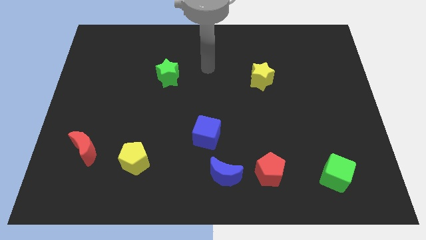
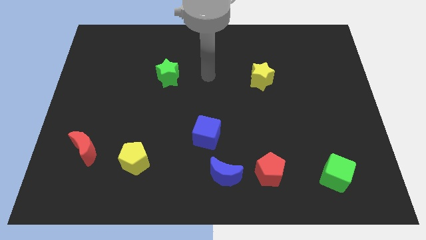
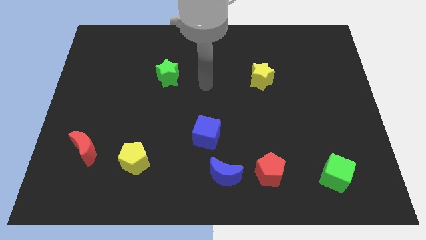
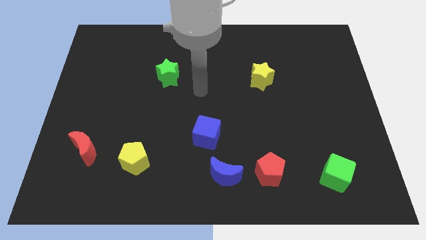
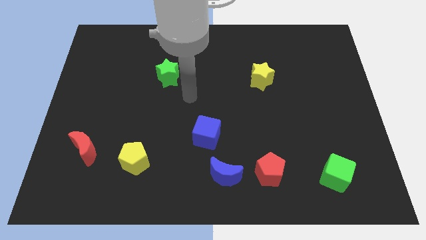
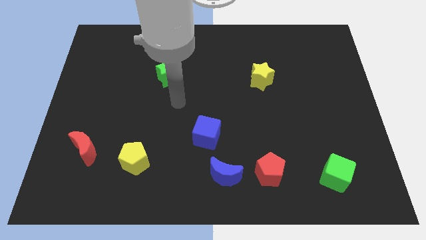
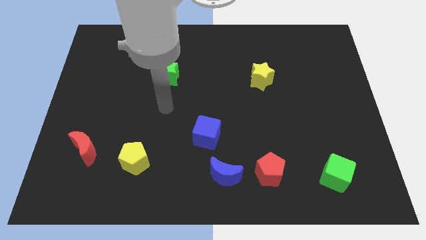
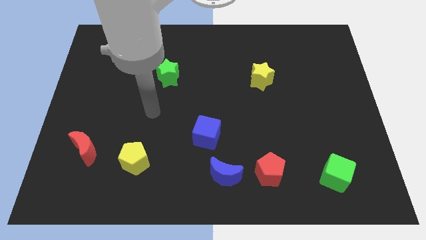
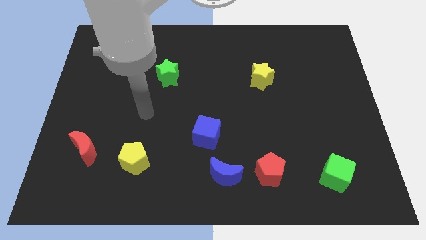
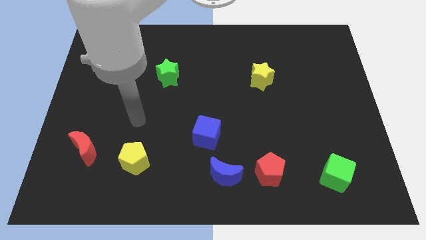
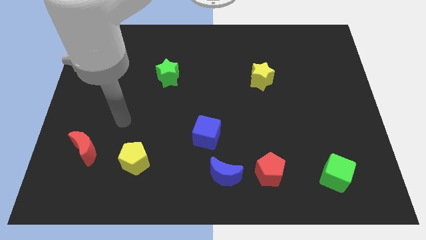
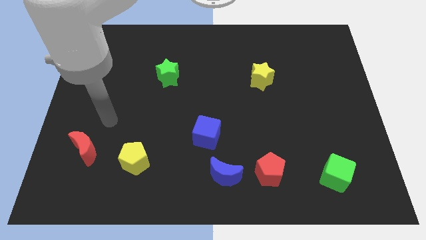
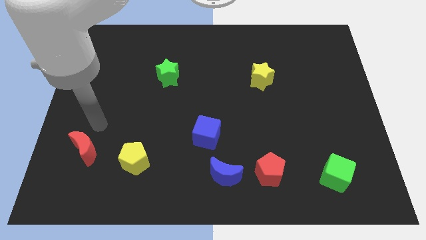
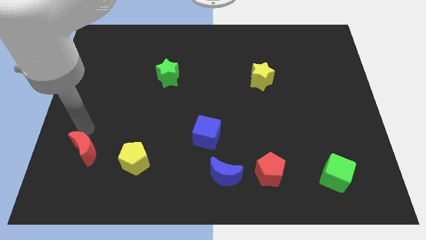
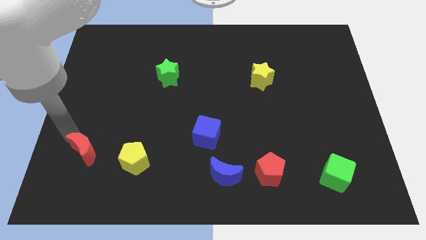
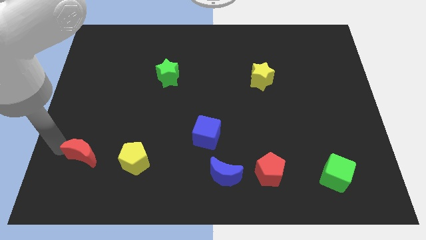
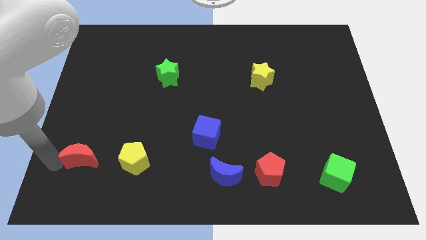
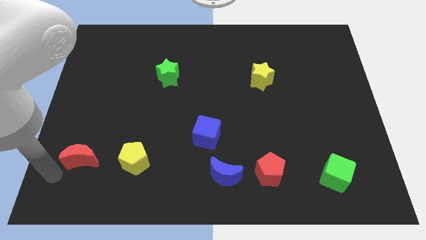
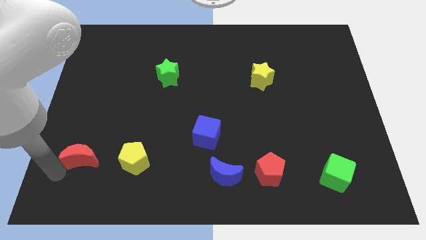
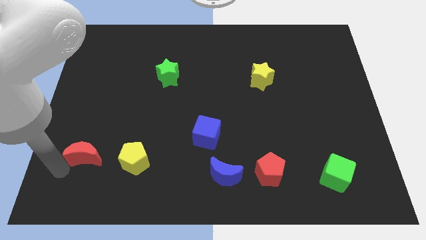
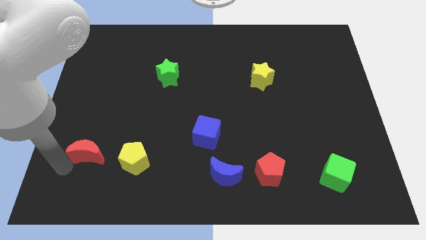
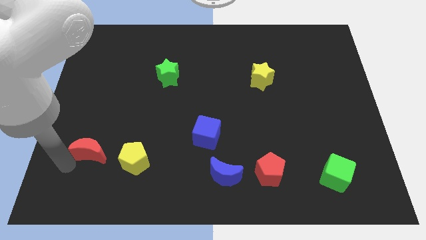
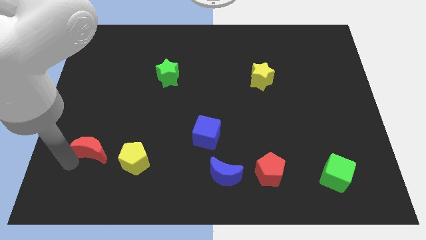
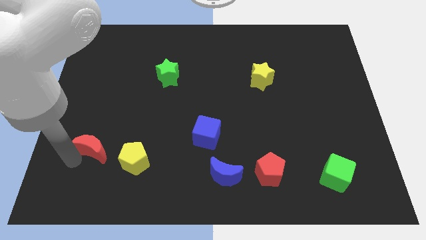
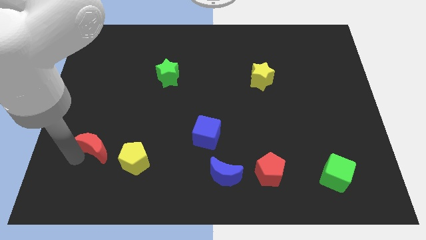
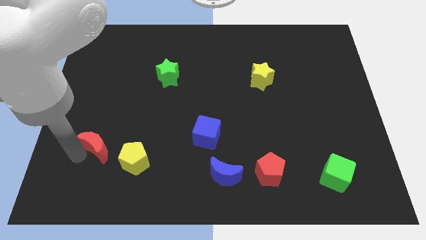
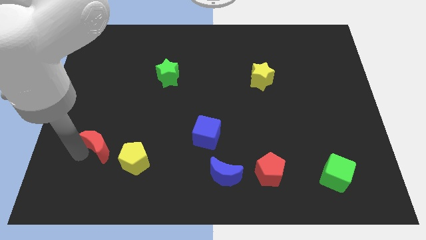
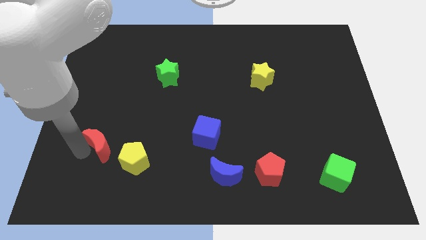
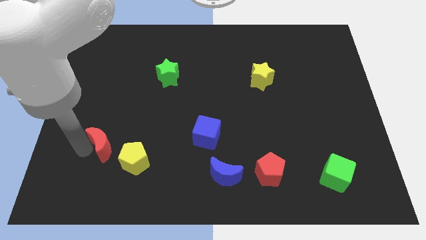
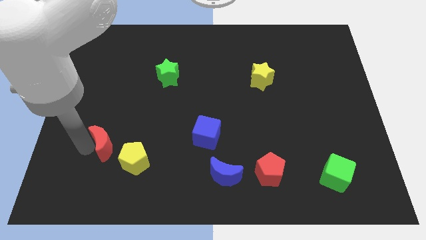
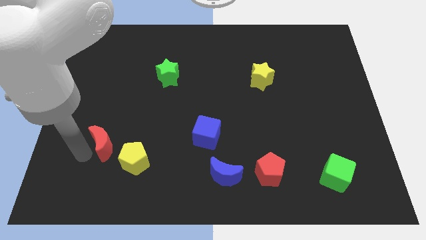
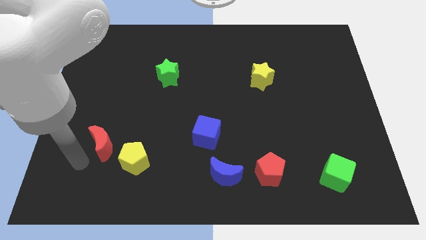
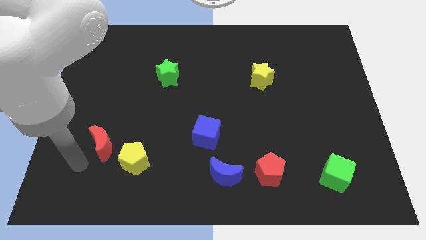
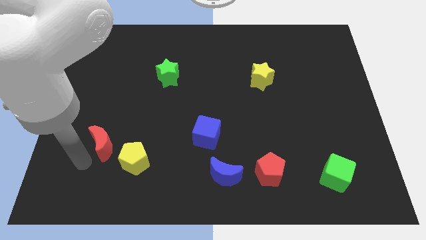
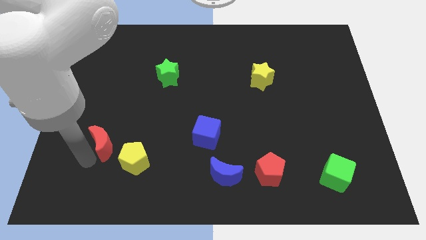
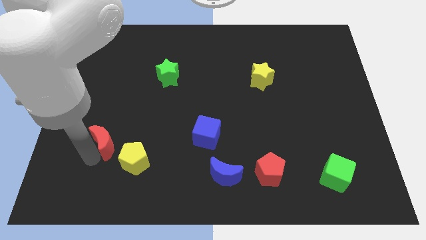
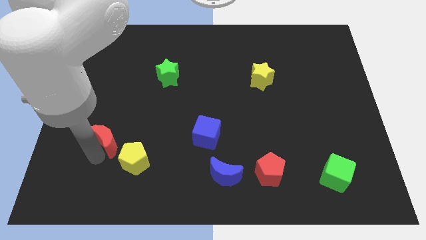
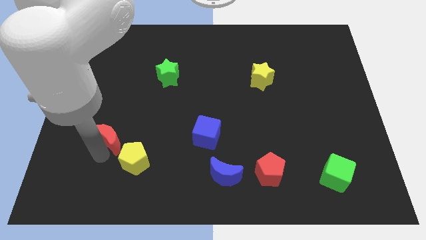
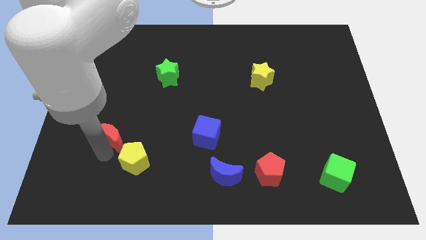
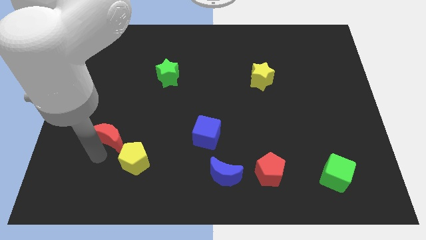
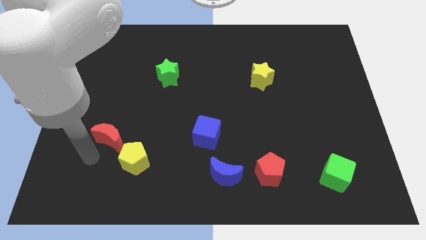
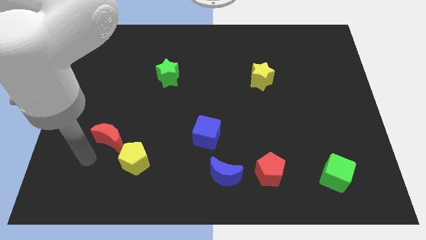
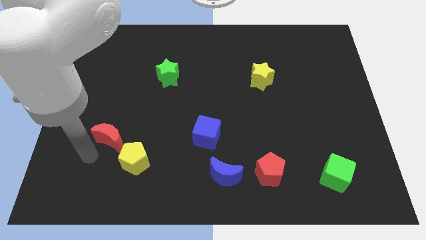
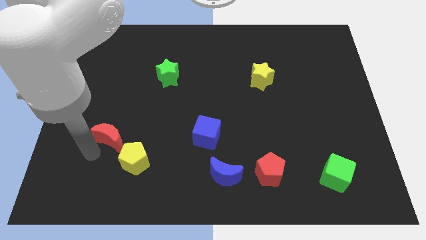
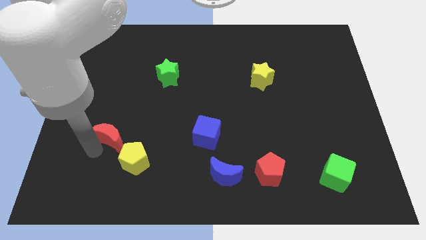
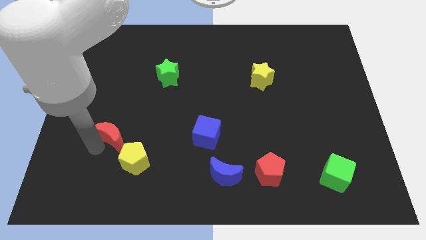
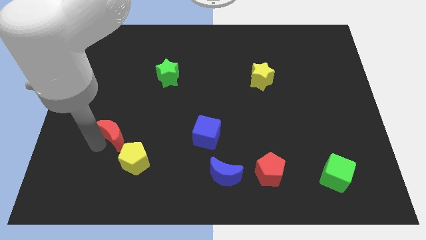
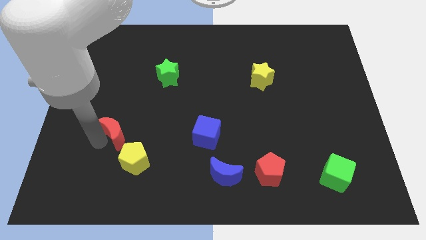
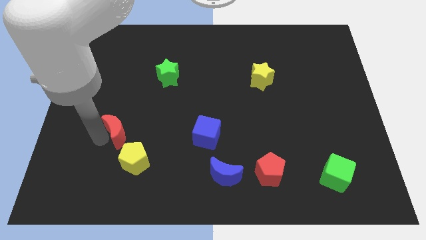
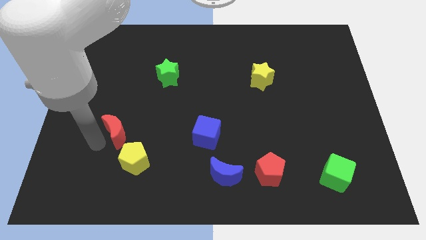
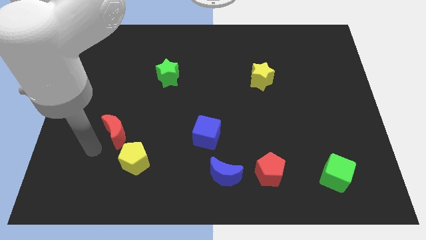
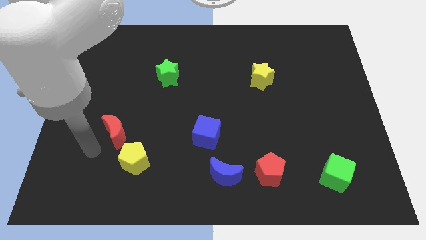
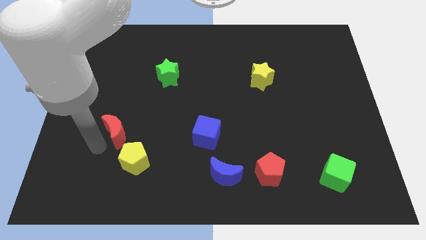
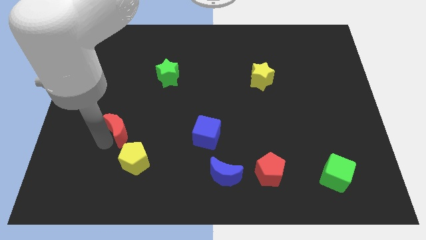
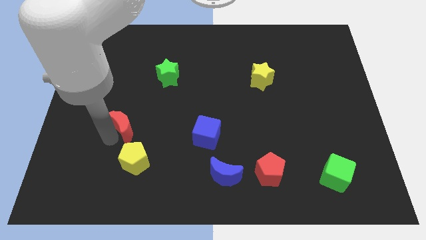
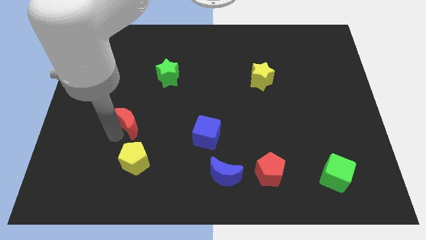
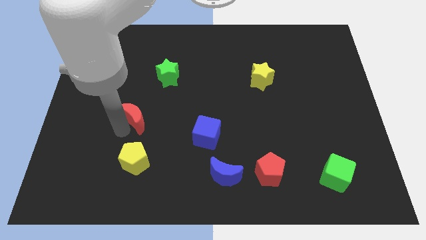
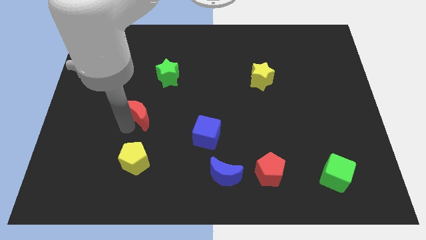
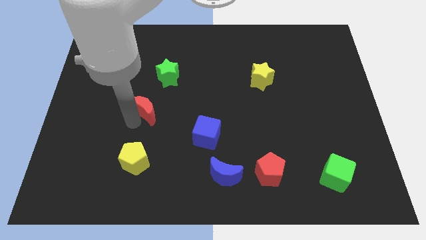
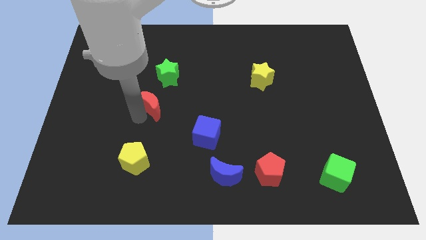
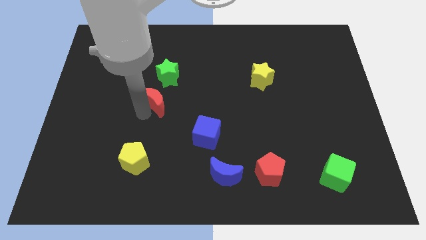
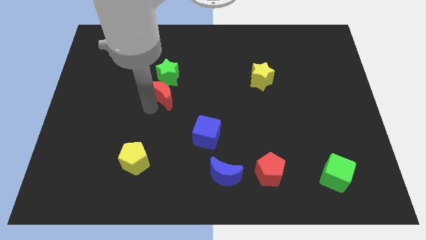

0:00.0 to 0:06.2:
slide the red moon diagonally up and to the right

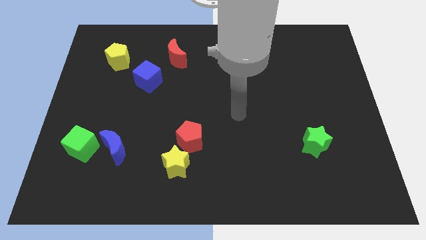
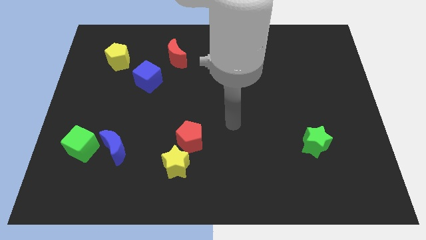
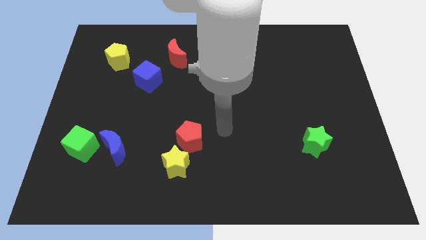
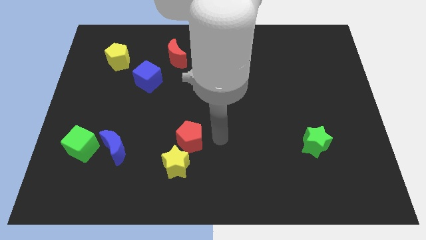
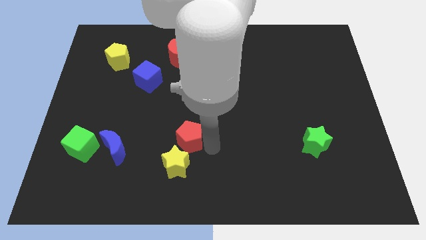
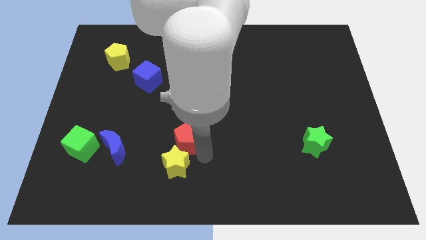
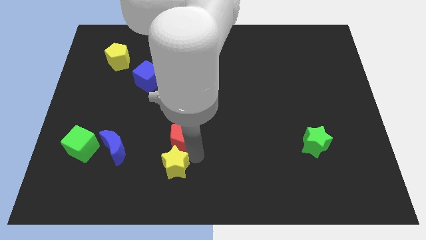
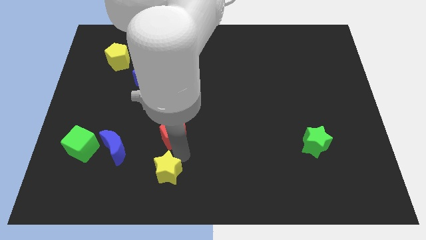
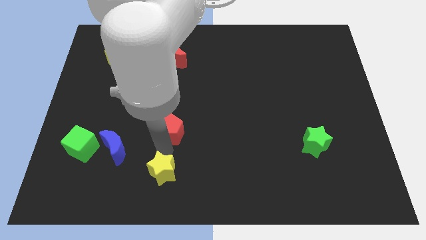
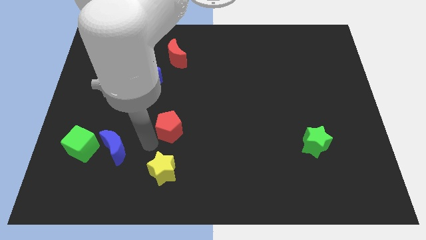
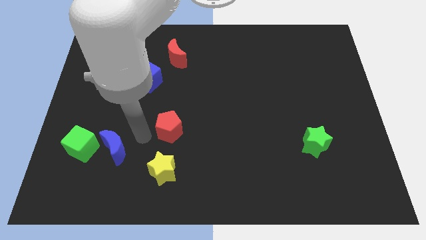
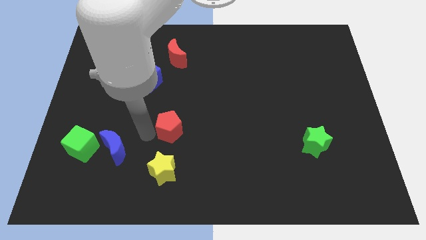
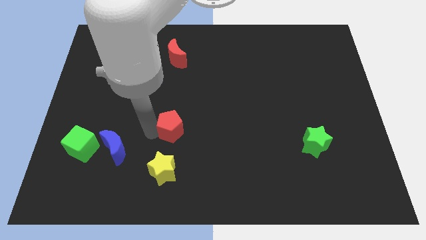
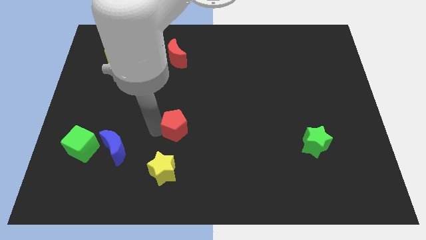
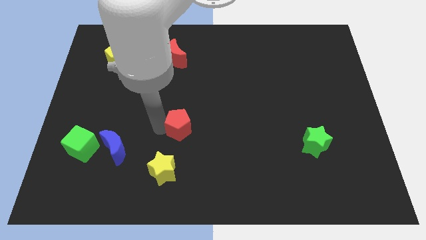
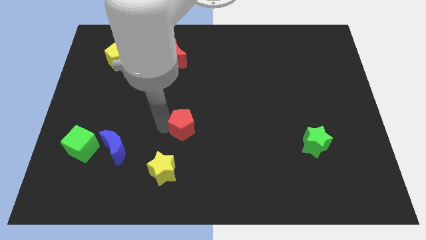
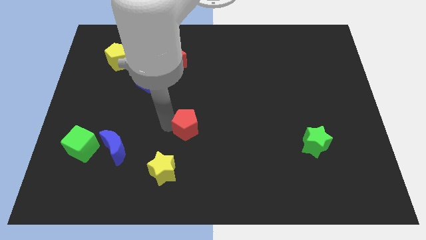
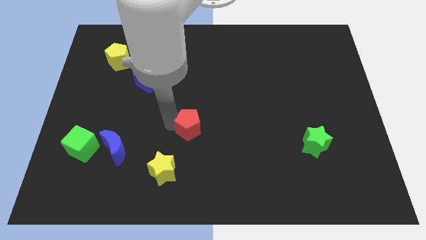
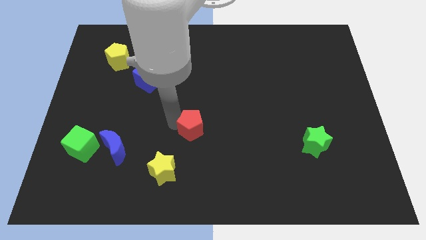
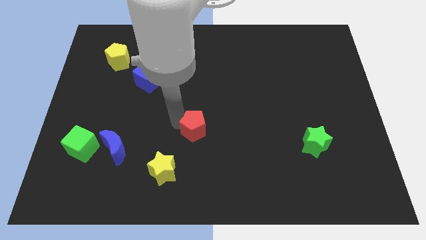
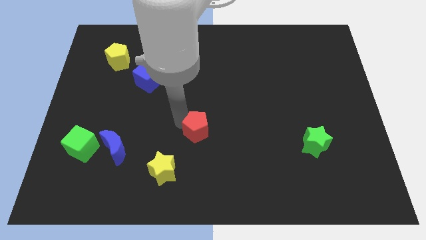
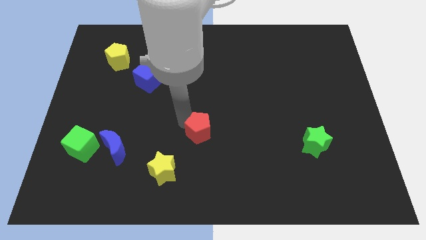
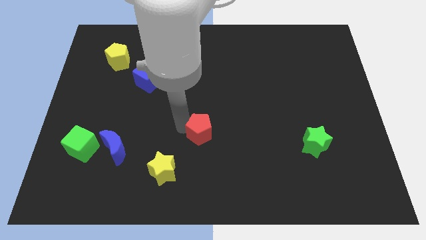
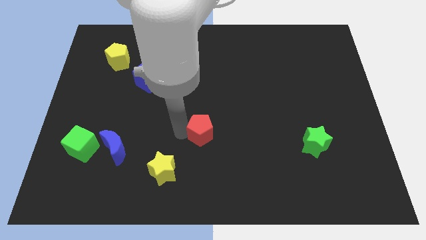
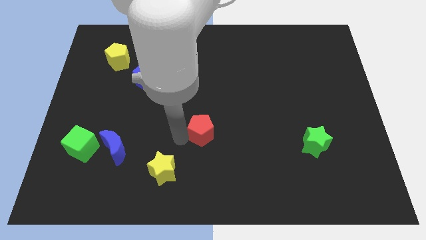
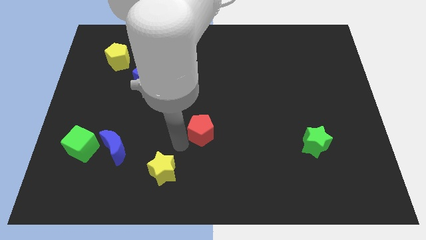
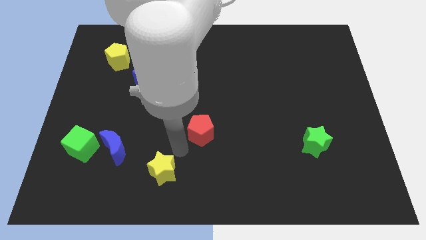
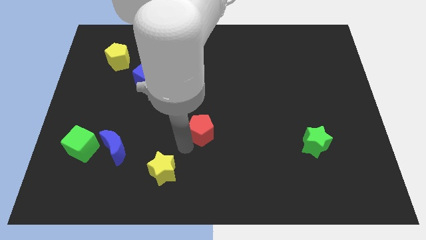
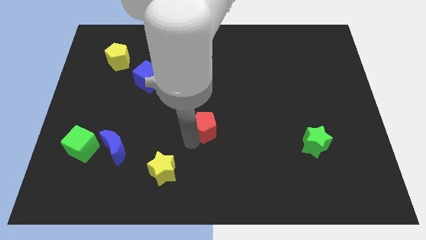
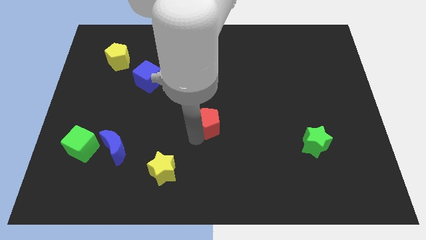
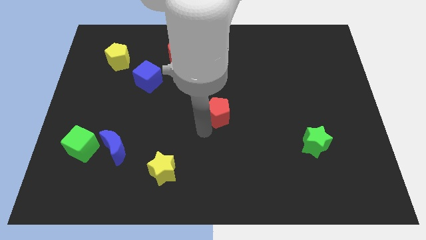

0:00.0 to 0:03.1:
push the red pentagon a bit up and right
